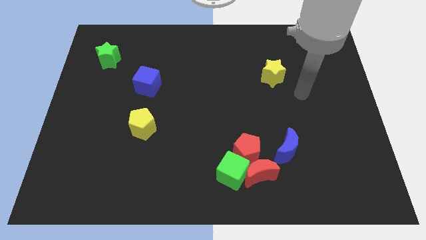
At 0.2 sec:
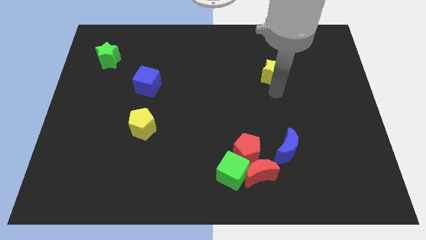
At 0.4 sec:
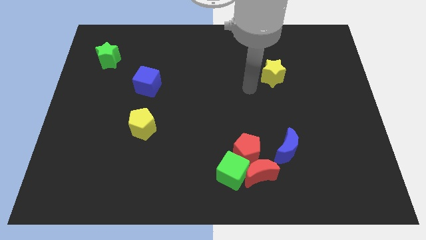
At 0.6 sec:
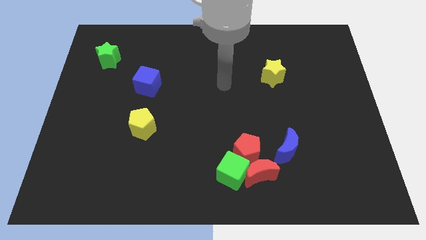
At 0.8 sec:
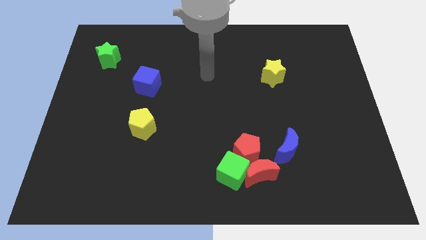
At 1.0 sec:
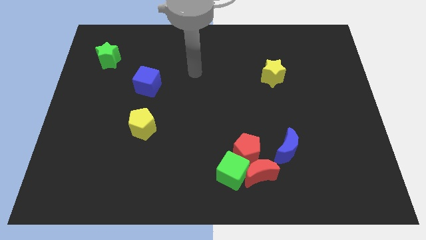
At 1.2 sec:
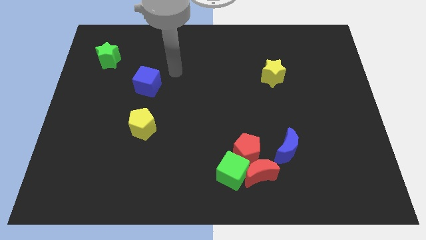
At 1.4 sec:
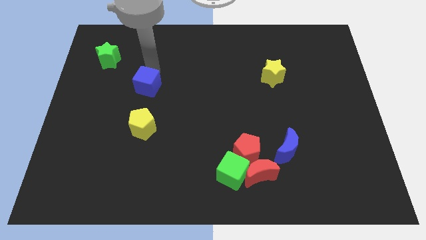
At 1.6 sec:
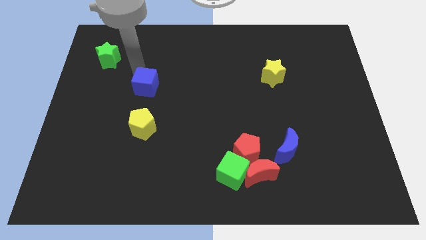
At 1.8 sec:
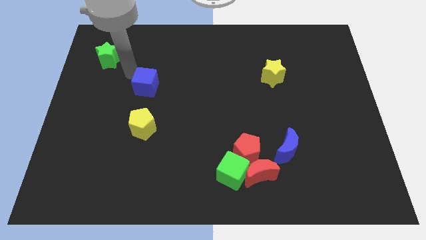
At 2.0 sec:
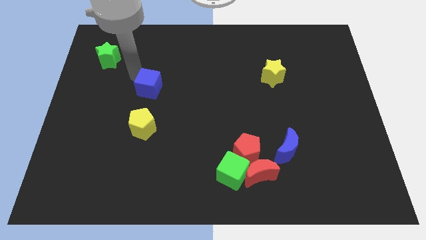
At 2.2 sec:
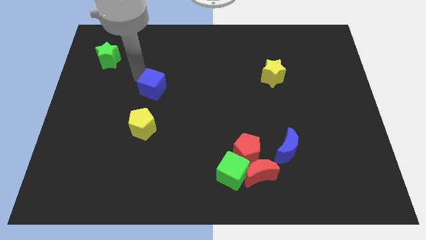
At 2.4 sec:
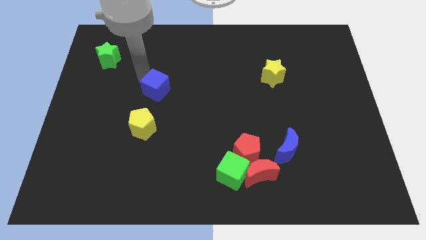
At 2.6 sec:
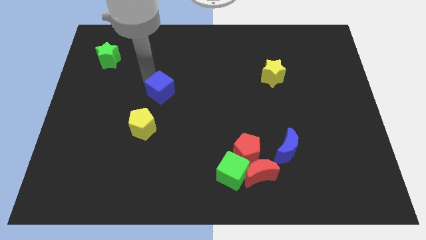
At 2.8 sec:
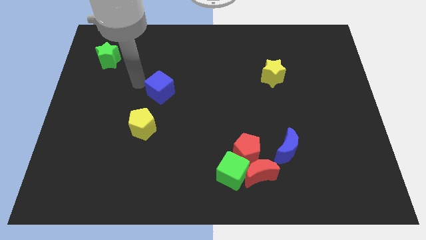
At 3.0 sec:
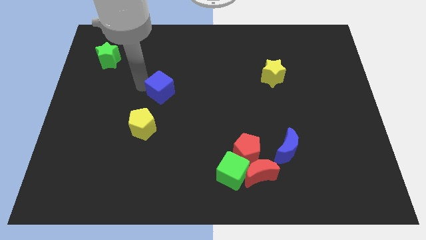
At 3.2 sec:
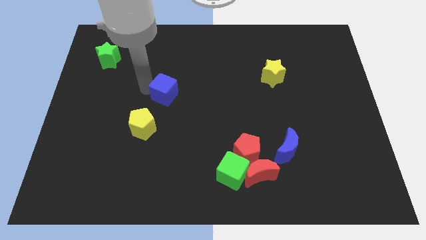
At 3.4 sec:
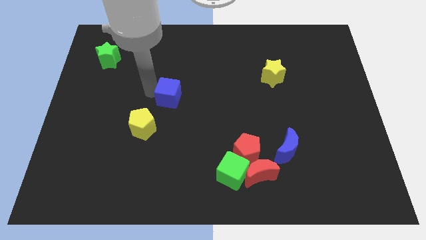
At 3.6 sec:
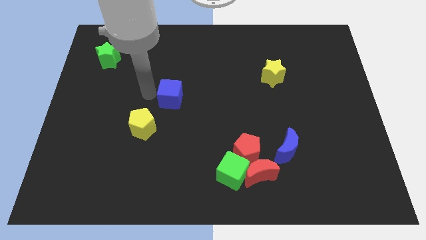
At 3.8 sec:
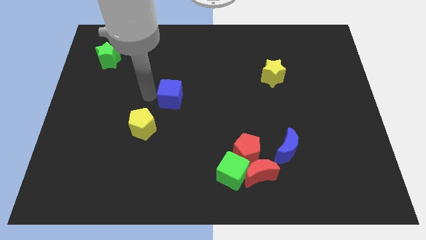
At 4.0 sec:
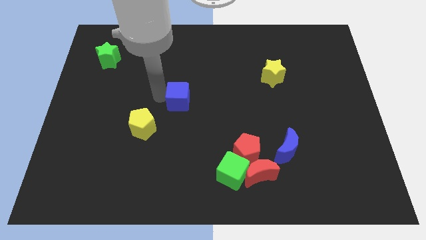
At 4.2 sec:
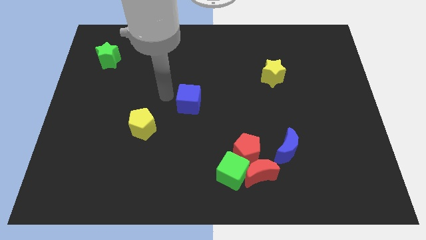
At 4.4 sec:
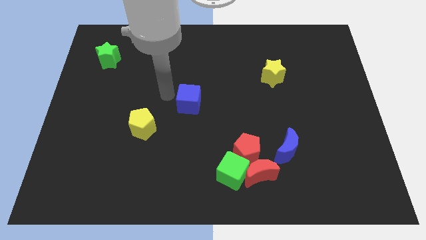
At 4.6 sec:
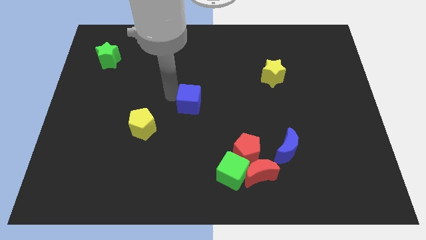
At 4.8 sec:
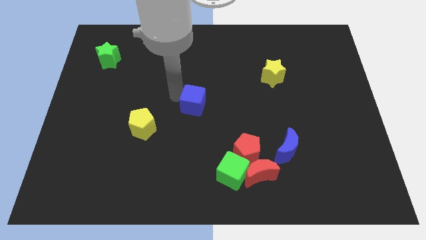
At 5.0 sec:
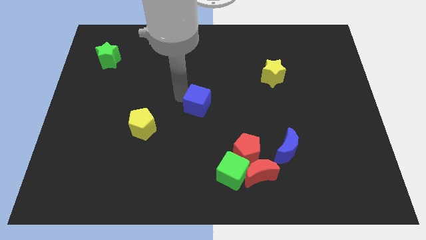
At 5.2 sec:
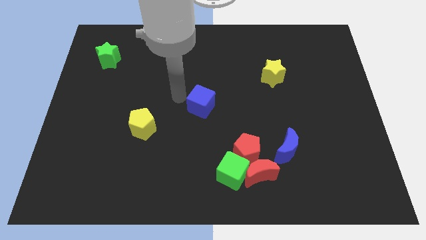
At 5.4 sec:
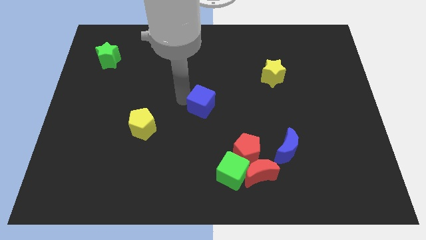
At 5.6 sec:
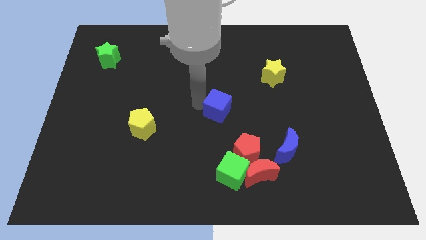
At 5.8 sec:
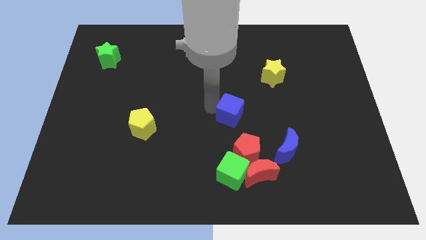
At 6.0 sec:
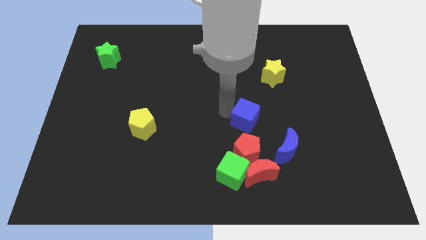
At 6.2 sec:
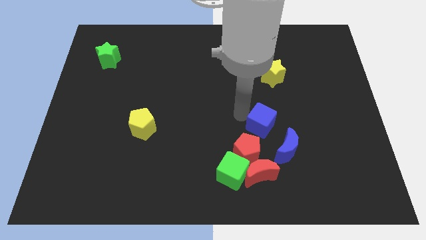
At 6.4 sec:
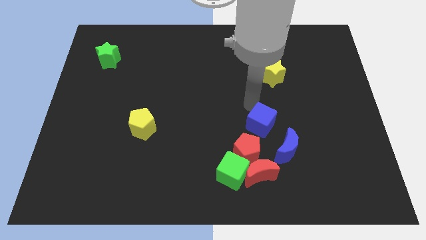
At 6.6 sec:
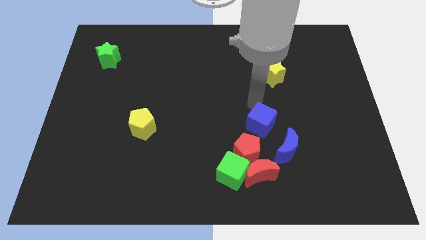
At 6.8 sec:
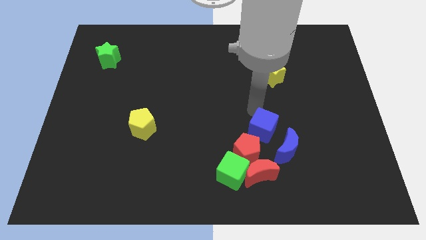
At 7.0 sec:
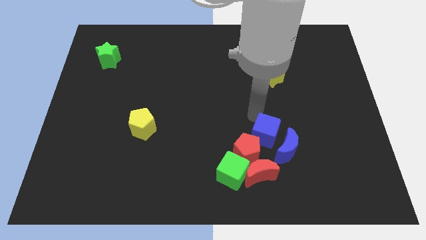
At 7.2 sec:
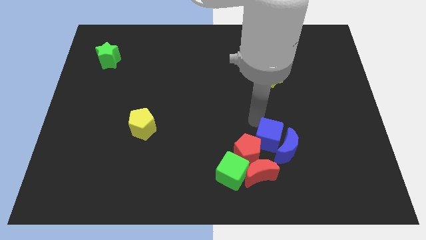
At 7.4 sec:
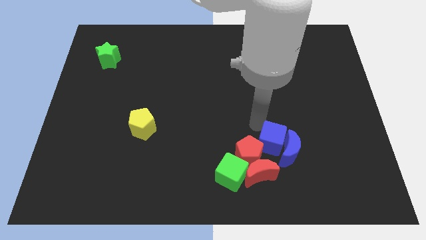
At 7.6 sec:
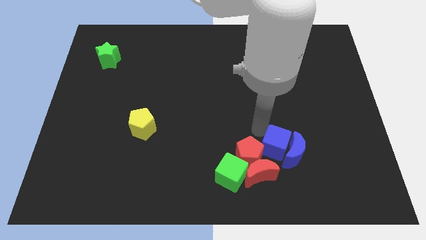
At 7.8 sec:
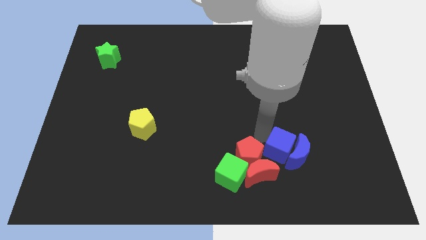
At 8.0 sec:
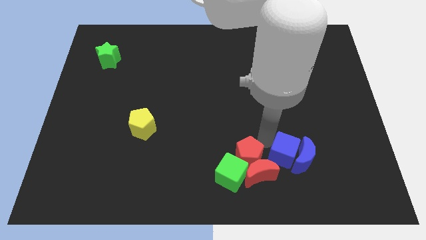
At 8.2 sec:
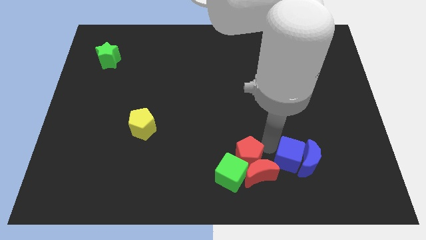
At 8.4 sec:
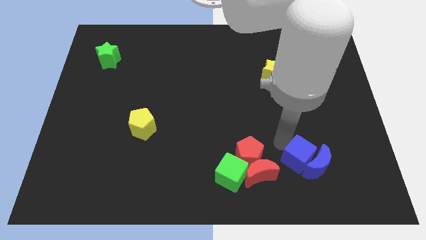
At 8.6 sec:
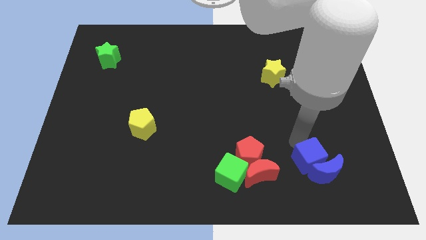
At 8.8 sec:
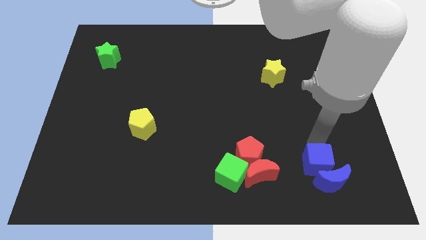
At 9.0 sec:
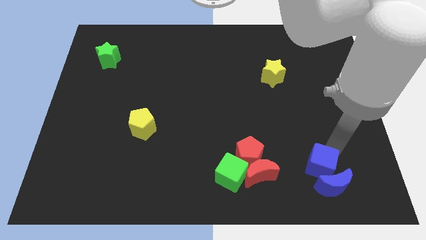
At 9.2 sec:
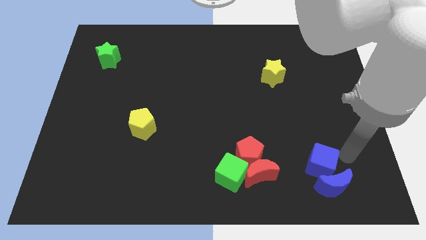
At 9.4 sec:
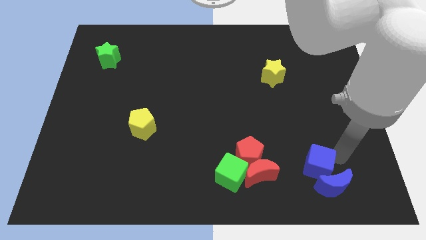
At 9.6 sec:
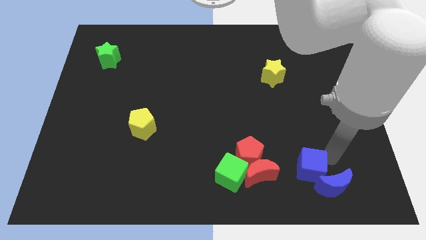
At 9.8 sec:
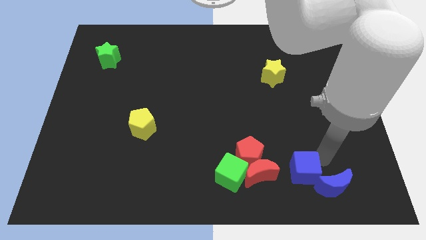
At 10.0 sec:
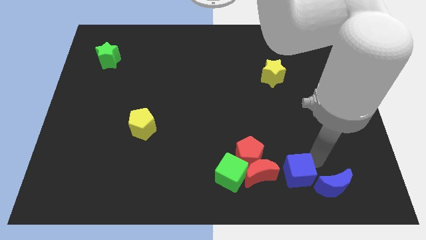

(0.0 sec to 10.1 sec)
put the blue cube to the bottom right of the red pentagon
